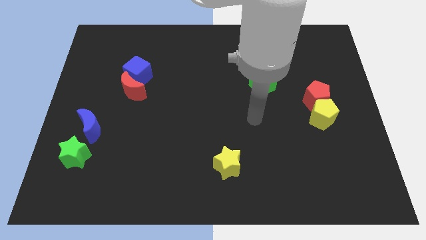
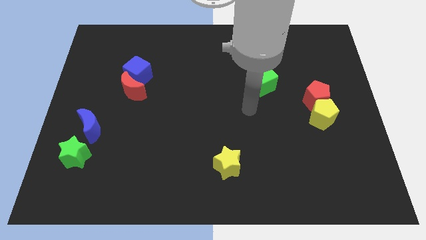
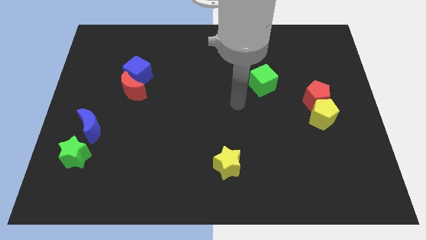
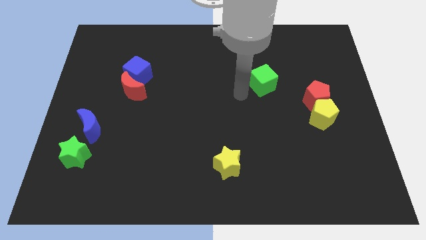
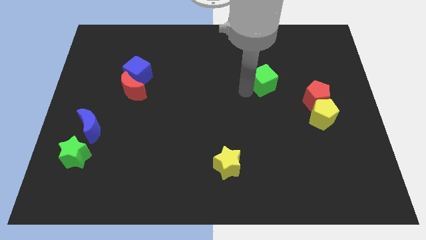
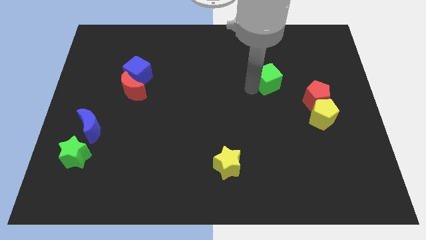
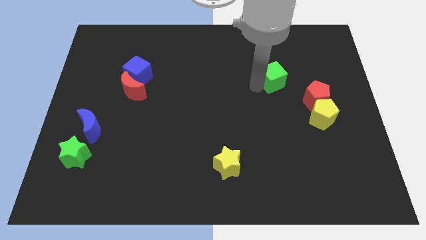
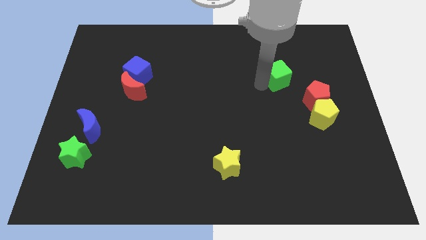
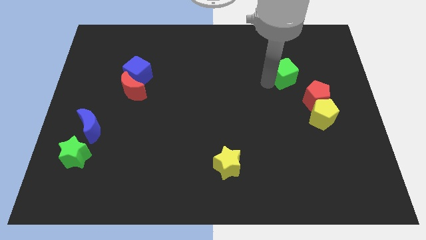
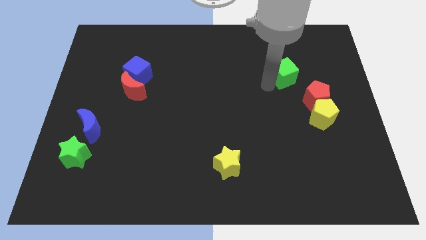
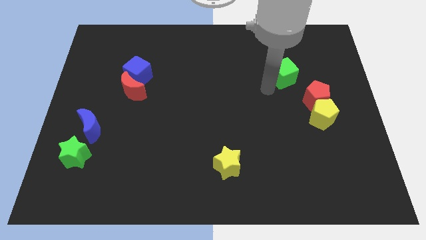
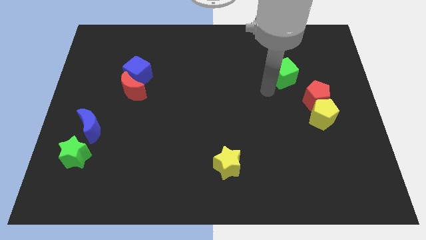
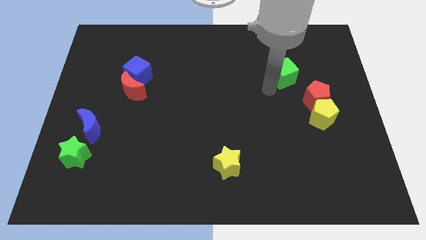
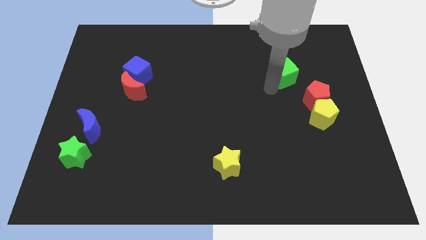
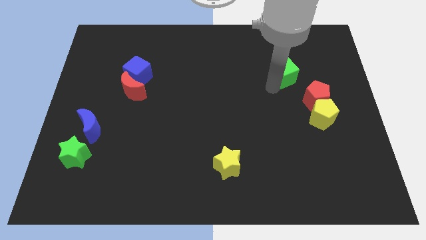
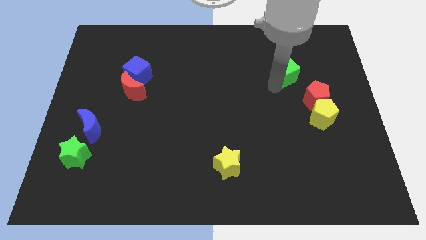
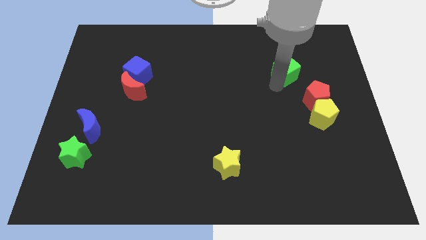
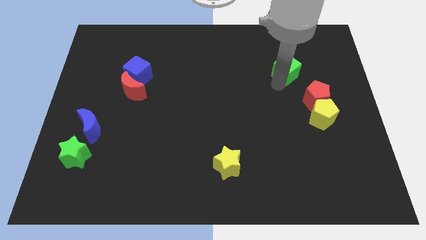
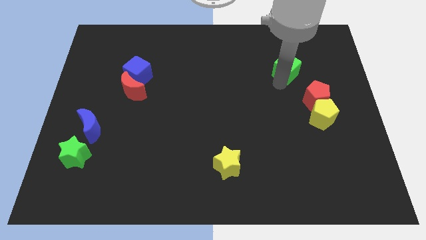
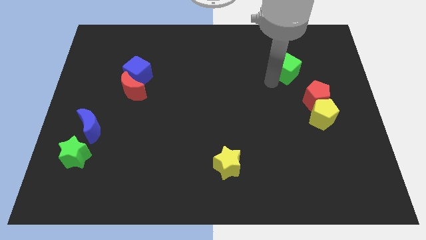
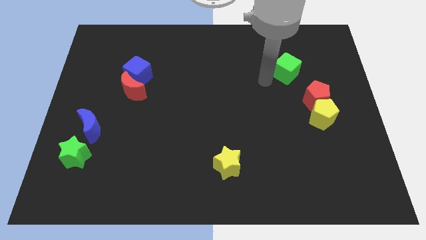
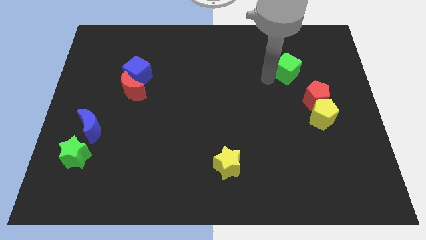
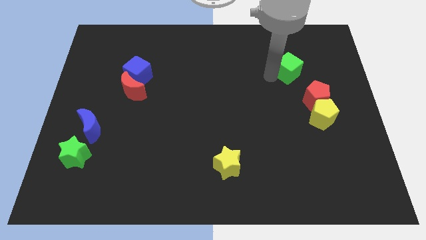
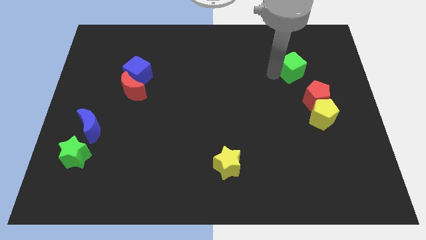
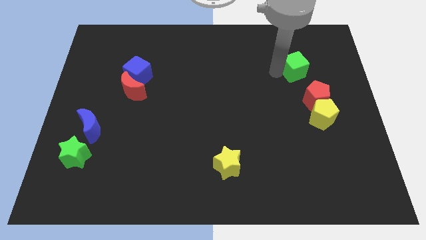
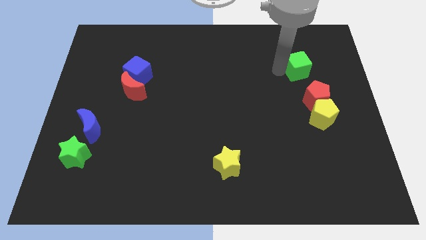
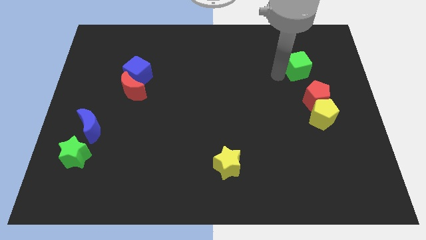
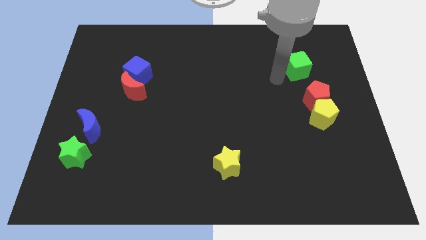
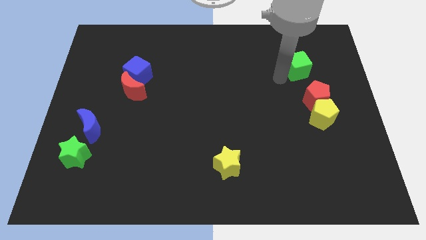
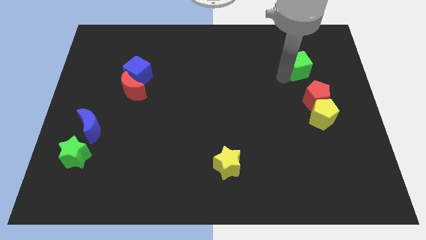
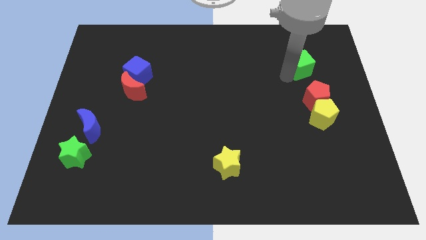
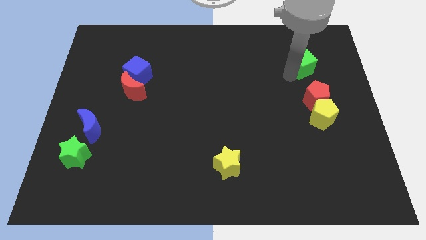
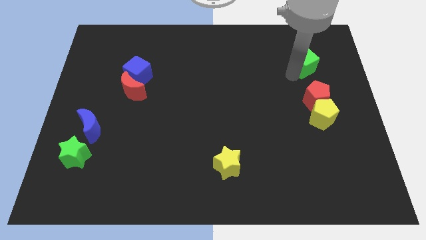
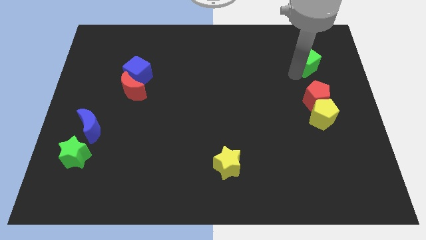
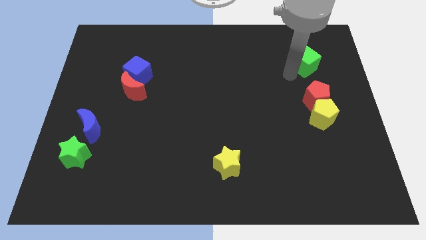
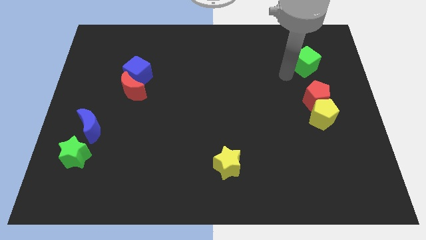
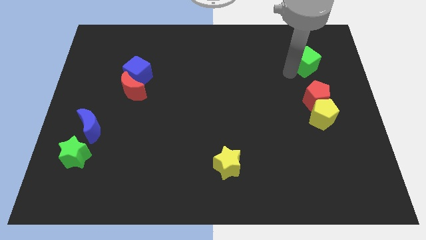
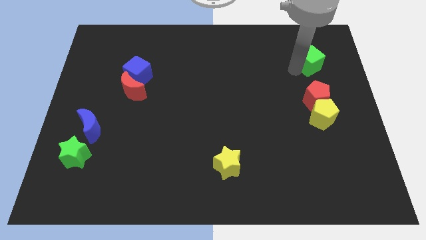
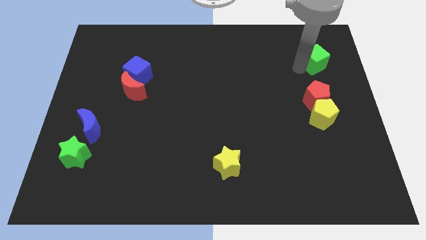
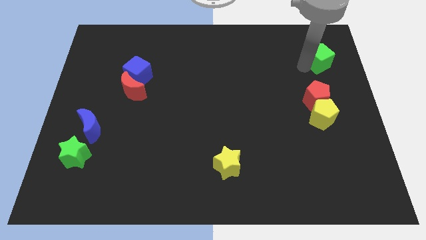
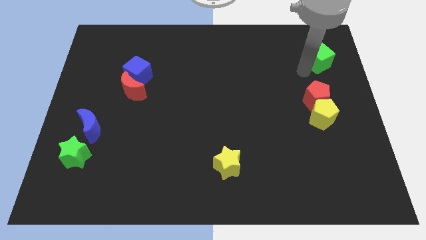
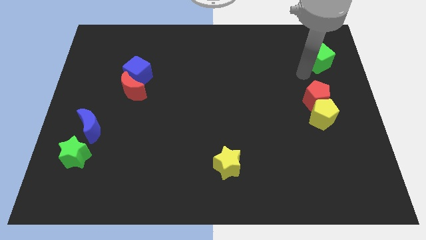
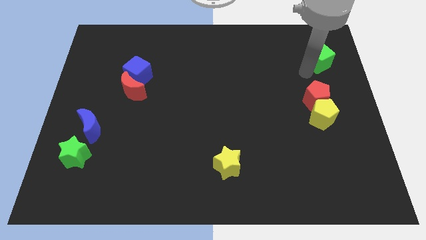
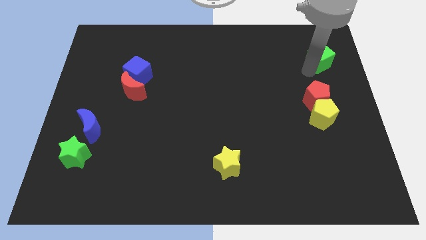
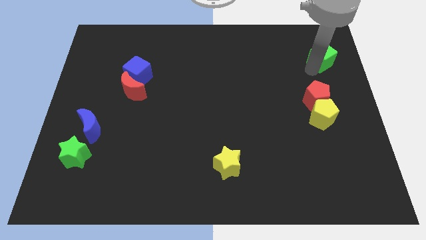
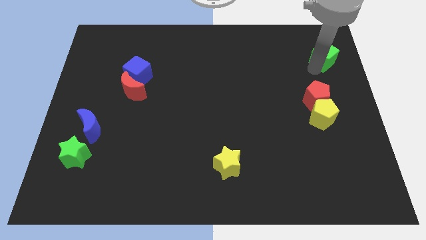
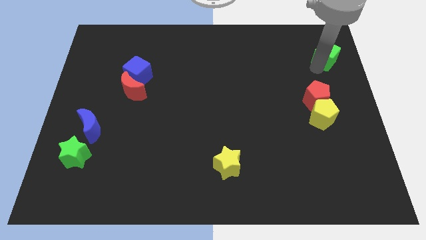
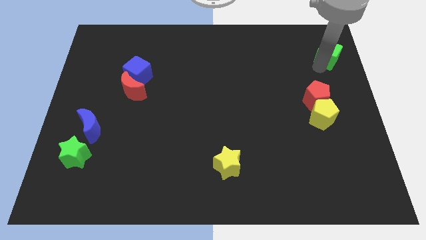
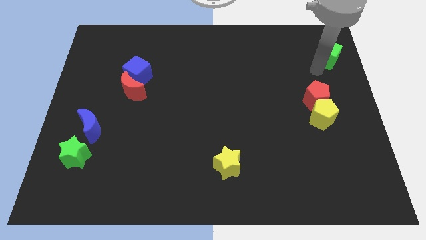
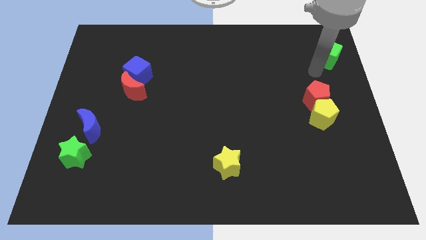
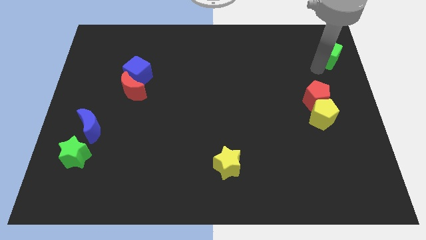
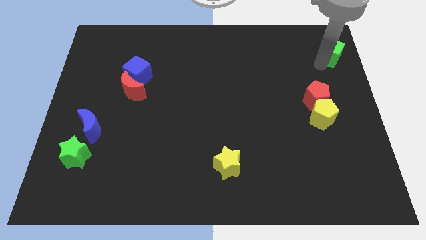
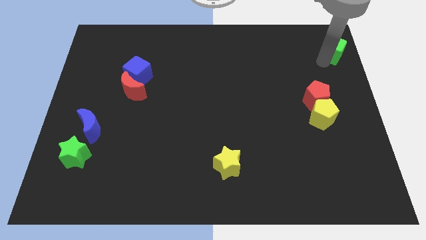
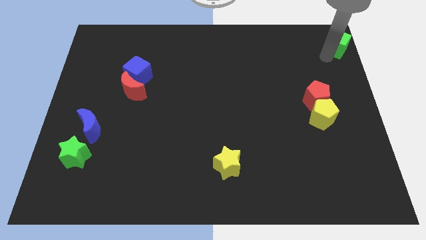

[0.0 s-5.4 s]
push the green cube to the top right of the board

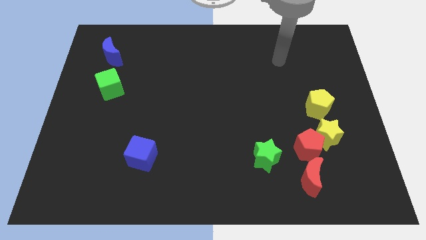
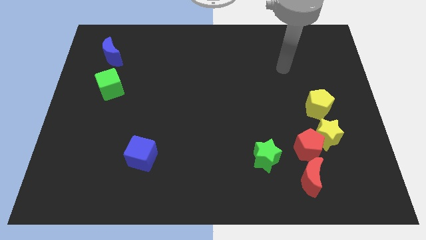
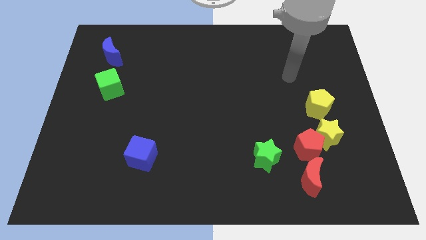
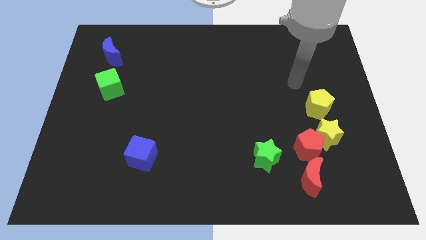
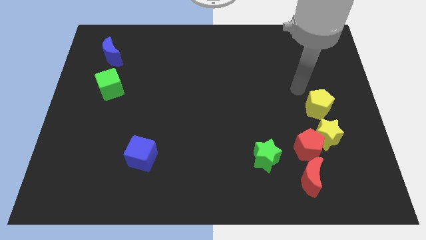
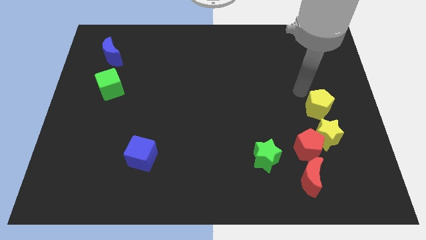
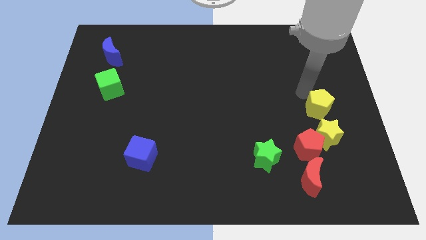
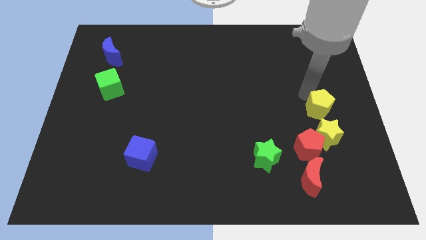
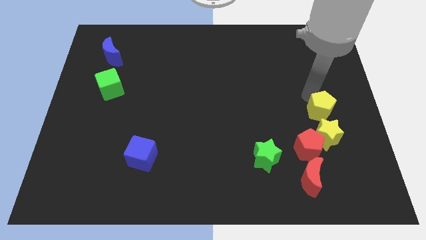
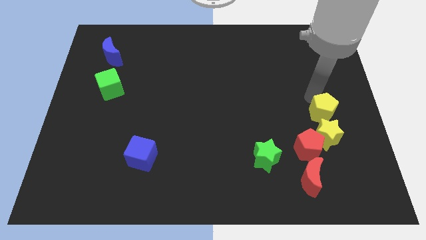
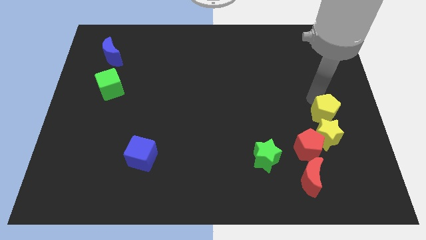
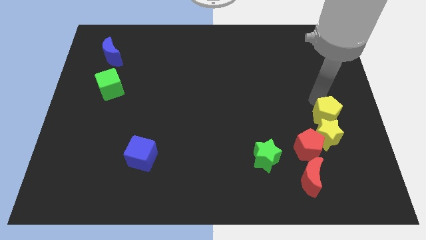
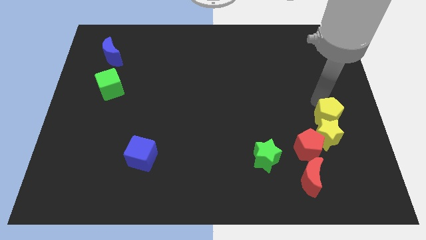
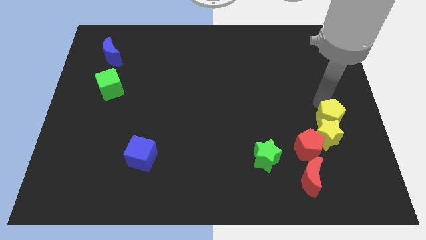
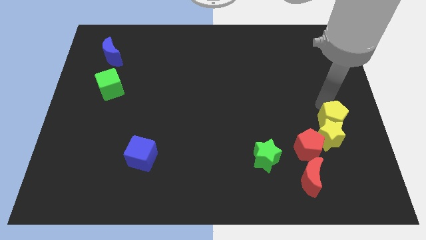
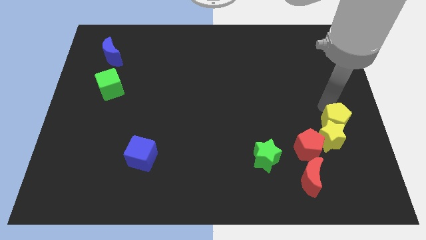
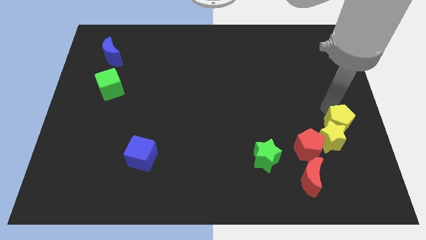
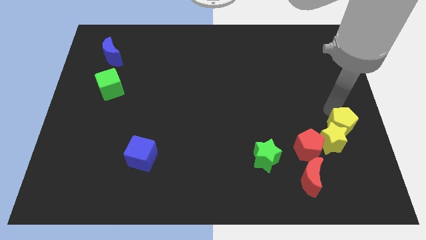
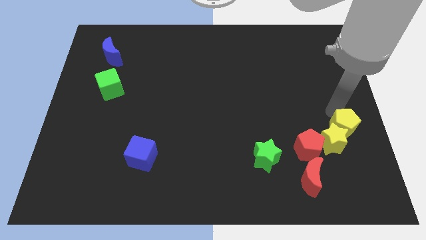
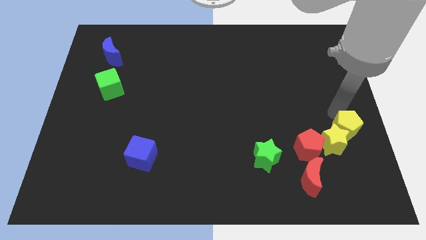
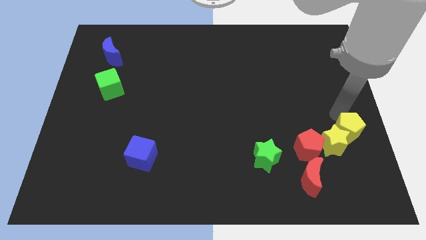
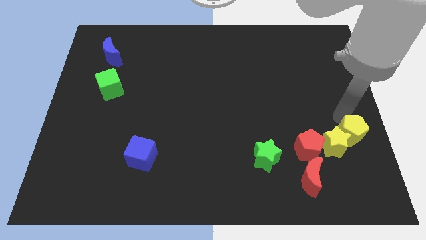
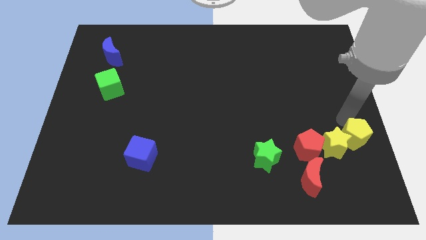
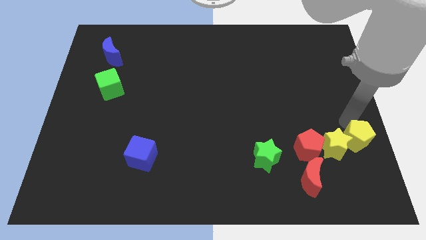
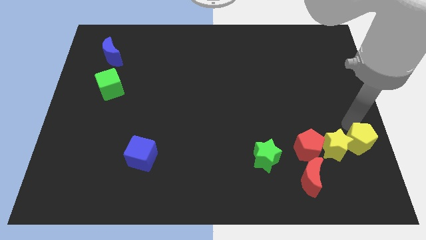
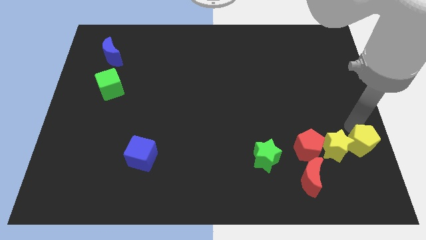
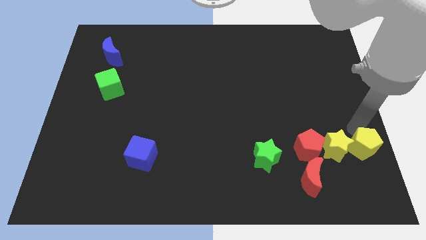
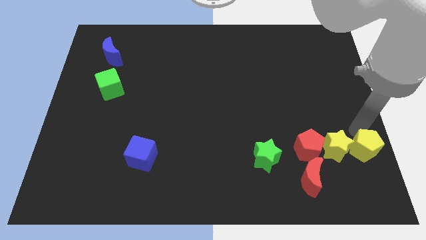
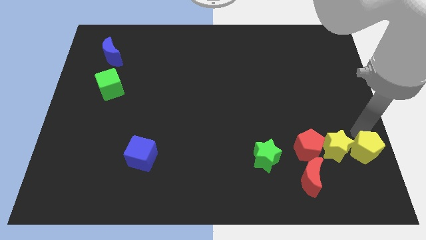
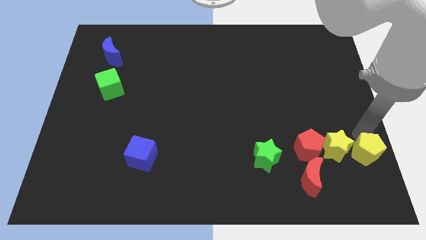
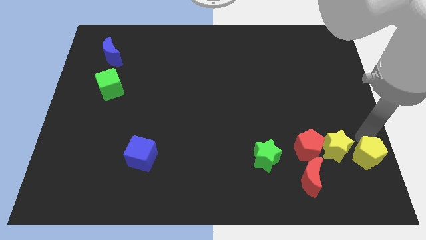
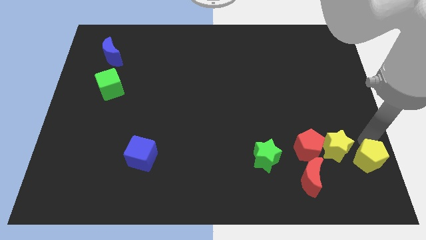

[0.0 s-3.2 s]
put the yellow pentagon to the bottom right corner
